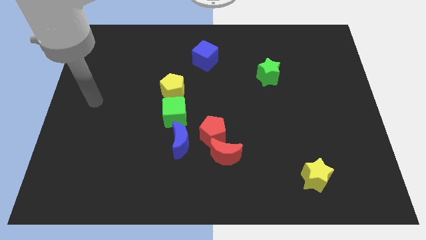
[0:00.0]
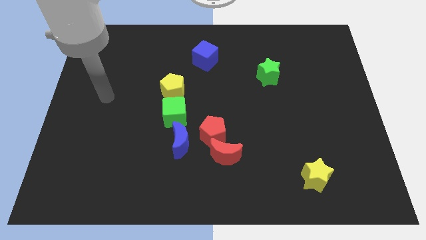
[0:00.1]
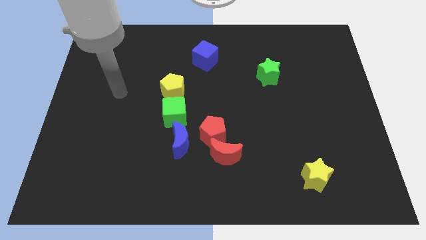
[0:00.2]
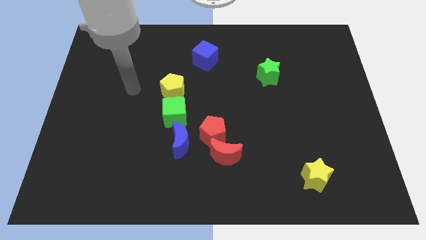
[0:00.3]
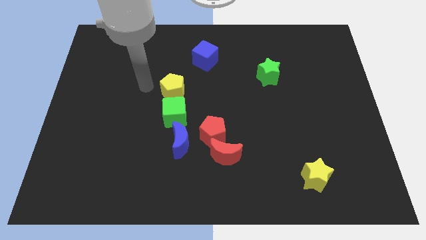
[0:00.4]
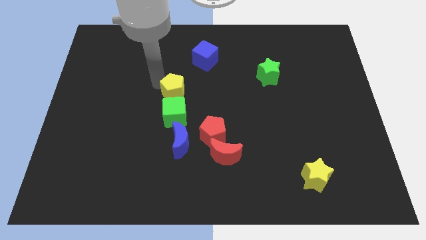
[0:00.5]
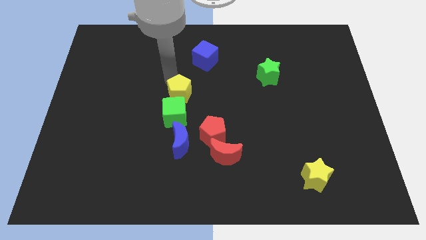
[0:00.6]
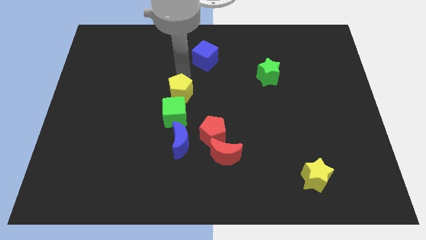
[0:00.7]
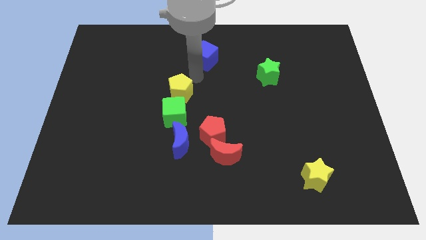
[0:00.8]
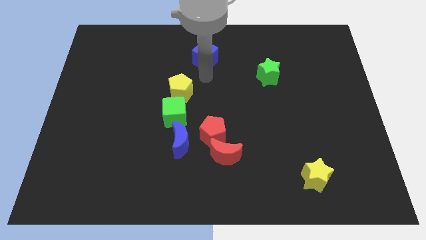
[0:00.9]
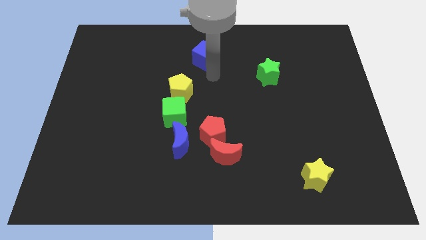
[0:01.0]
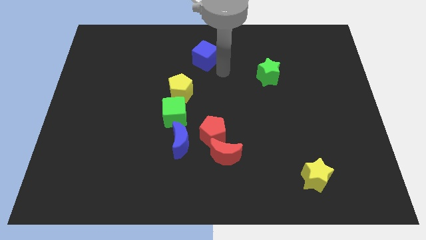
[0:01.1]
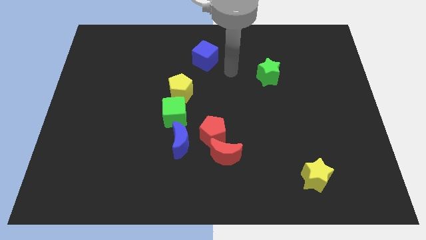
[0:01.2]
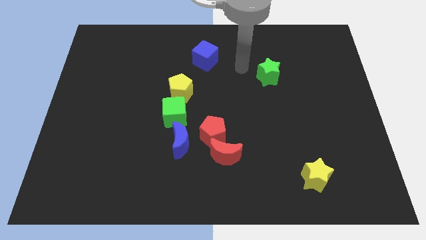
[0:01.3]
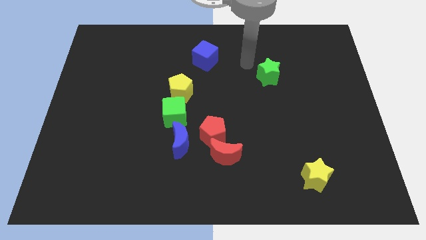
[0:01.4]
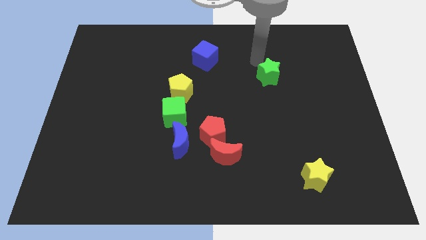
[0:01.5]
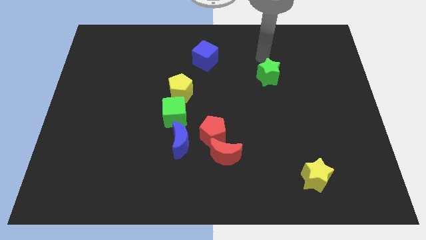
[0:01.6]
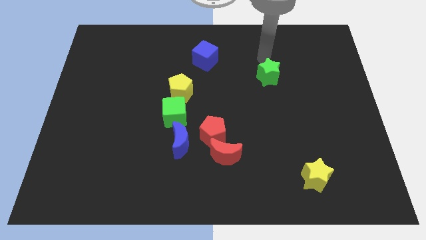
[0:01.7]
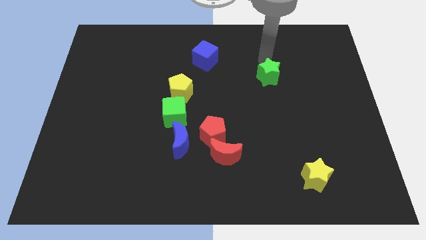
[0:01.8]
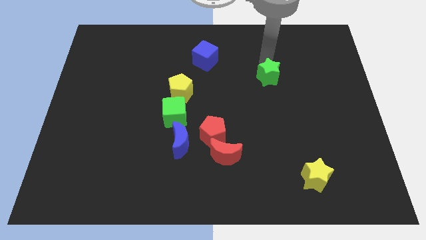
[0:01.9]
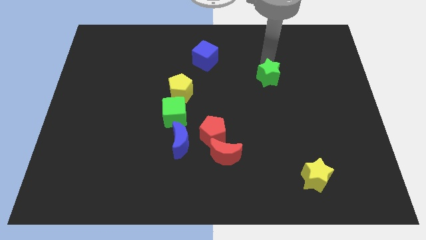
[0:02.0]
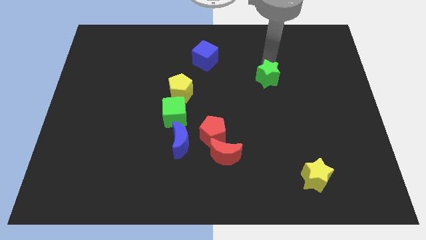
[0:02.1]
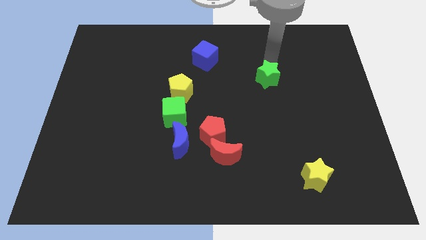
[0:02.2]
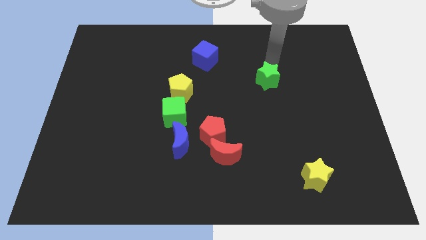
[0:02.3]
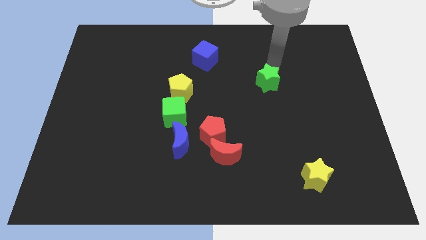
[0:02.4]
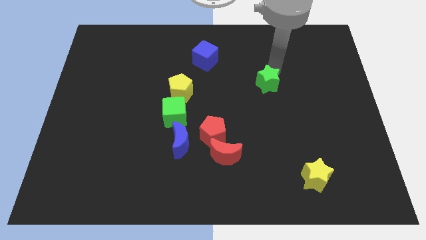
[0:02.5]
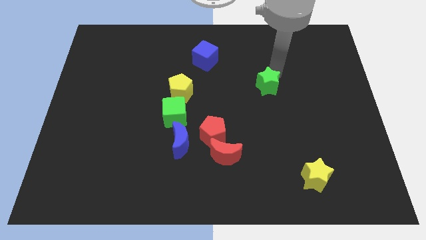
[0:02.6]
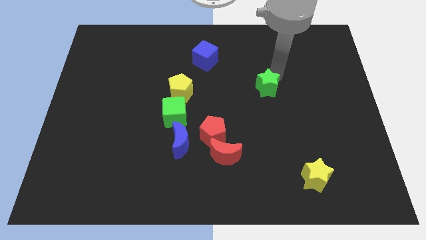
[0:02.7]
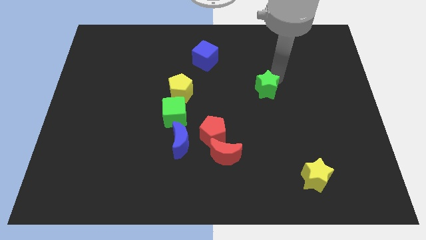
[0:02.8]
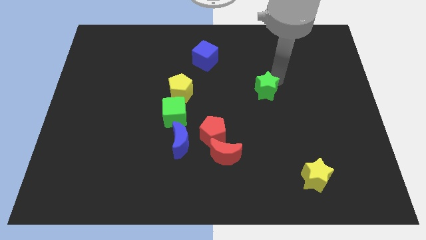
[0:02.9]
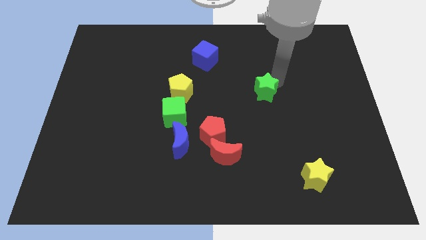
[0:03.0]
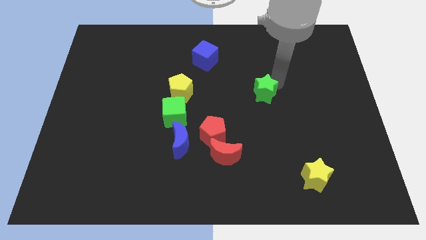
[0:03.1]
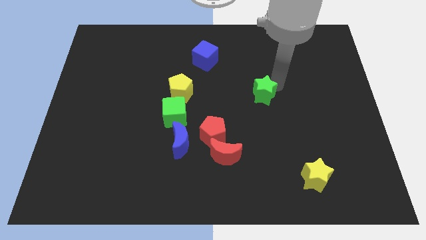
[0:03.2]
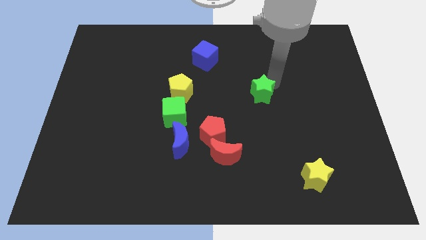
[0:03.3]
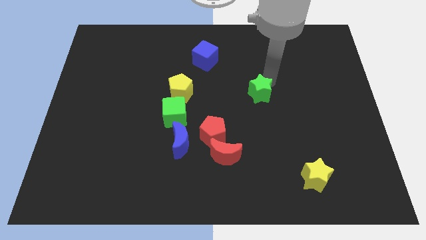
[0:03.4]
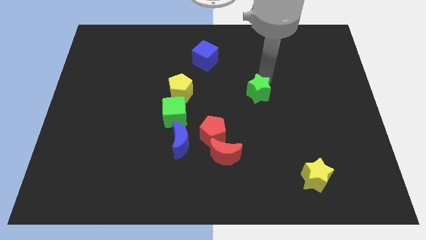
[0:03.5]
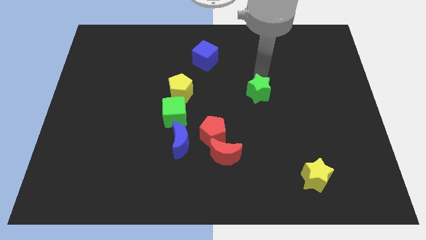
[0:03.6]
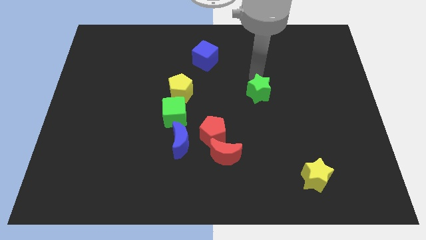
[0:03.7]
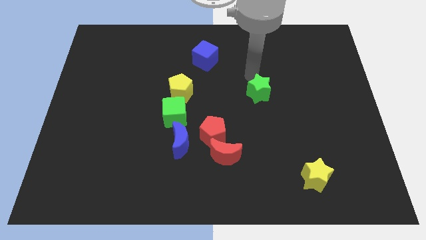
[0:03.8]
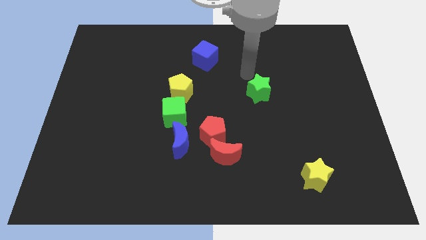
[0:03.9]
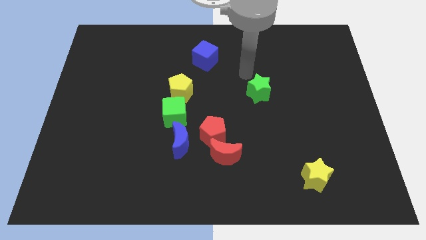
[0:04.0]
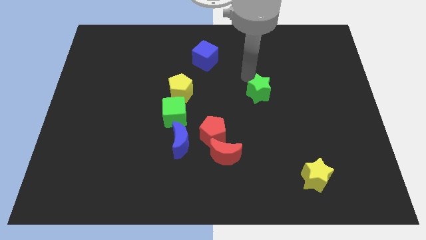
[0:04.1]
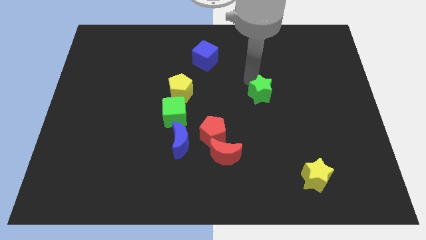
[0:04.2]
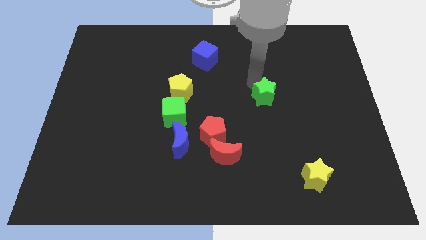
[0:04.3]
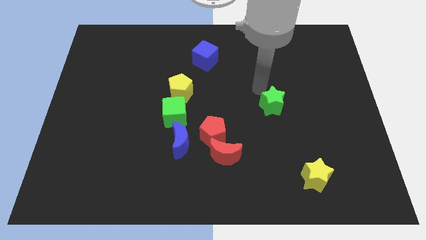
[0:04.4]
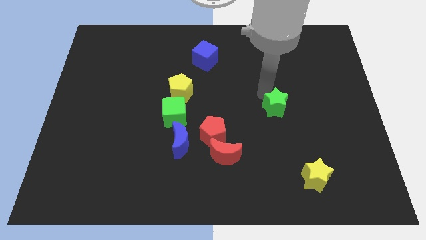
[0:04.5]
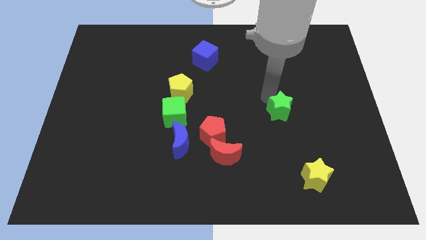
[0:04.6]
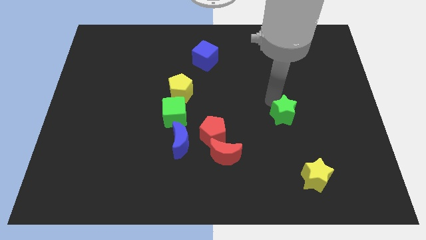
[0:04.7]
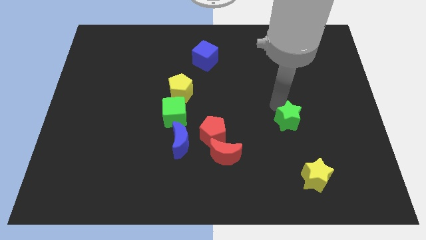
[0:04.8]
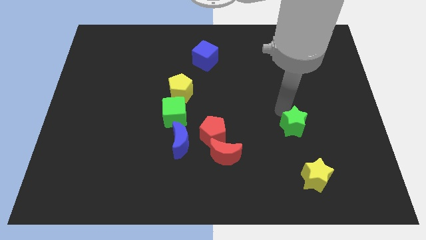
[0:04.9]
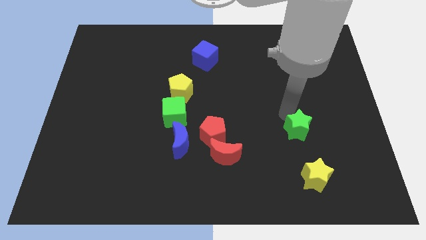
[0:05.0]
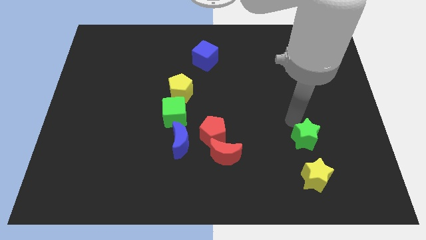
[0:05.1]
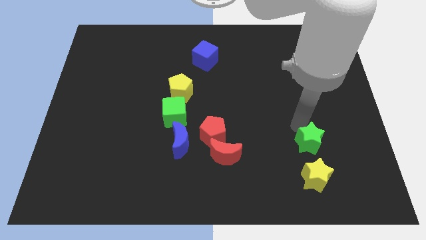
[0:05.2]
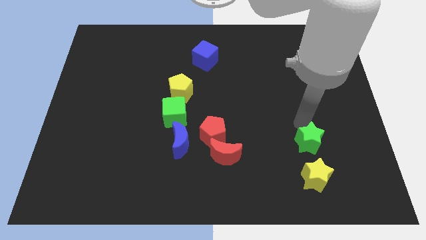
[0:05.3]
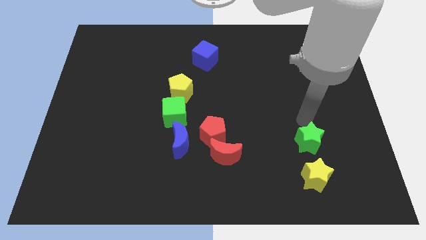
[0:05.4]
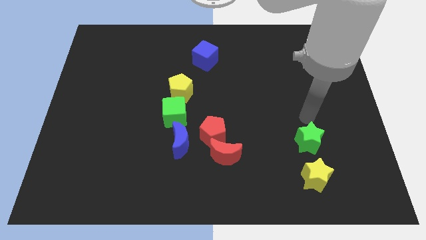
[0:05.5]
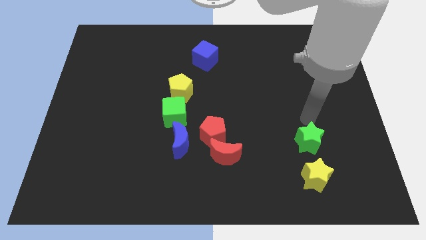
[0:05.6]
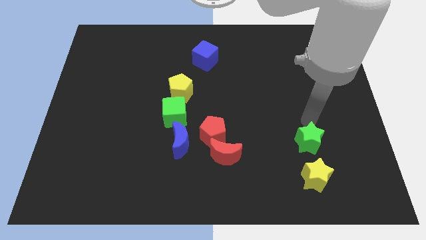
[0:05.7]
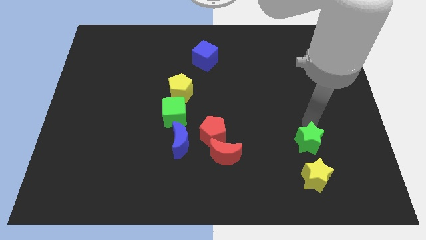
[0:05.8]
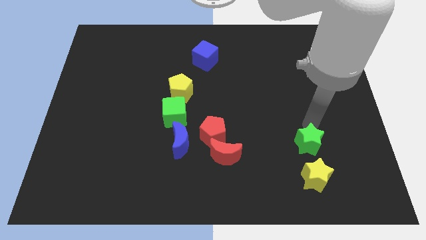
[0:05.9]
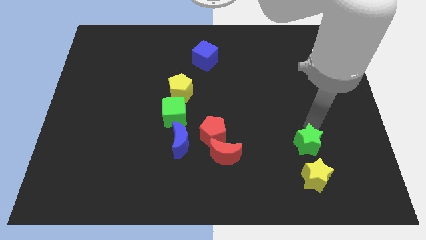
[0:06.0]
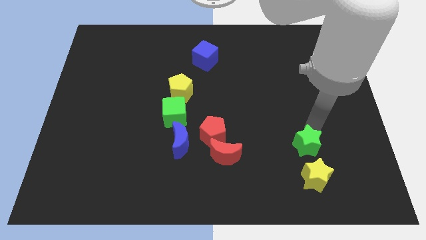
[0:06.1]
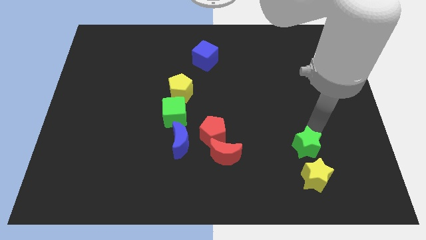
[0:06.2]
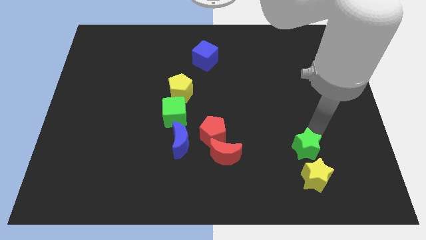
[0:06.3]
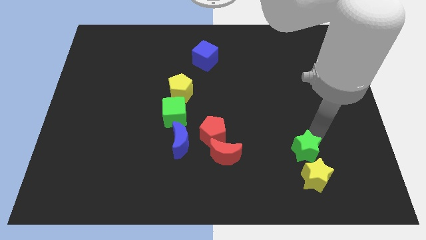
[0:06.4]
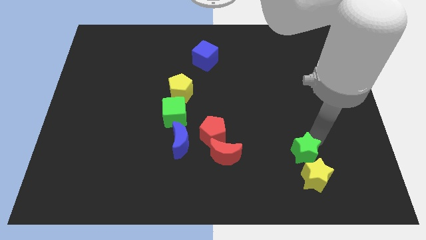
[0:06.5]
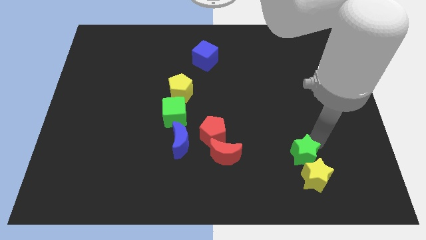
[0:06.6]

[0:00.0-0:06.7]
push the green star to the yellow star

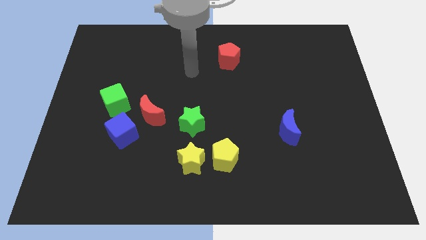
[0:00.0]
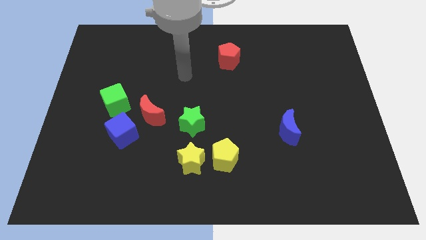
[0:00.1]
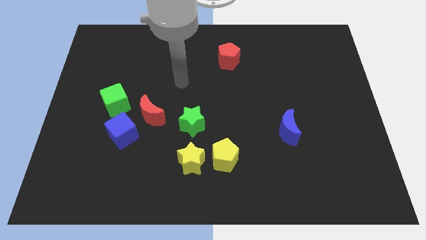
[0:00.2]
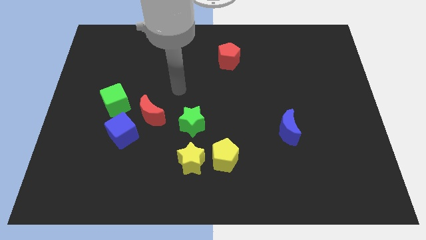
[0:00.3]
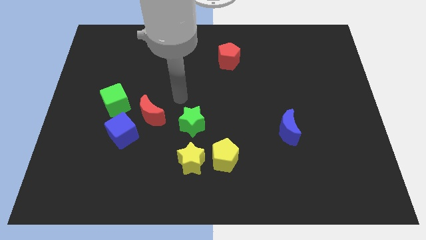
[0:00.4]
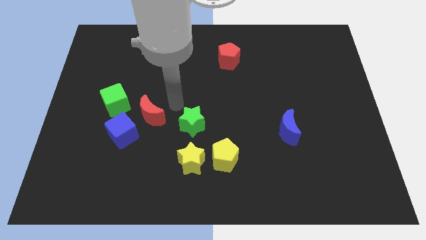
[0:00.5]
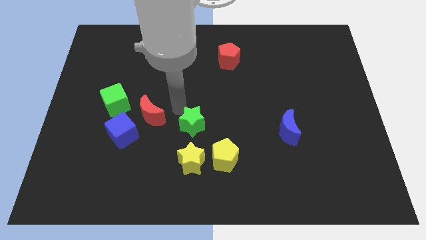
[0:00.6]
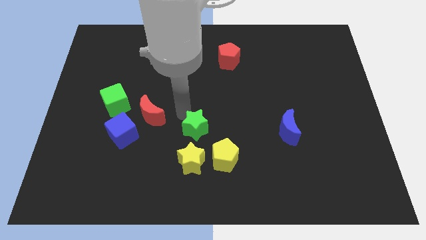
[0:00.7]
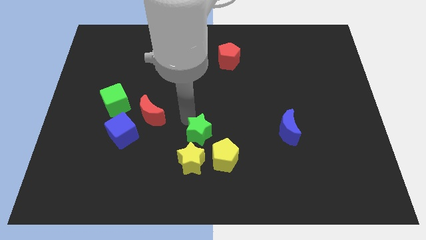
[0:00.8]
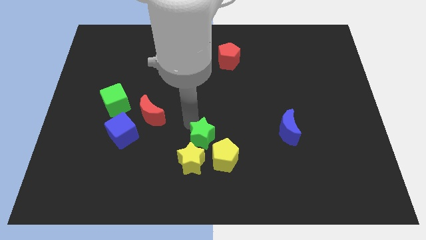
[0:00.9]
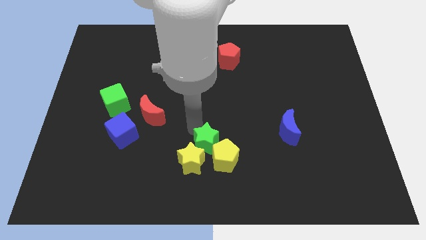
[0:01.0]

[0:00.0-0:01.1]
slide the green star to the yellow pentagon
